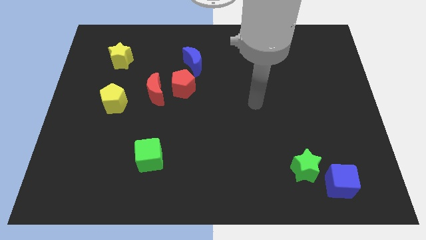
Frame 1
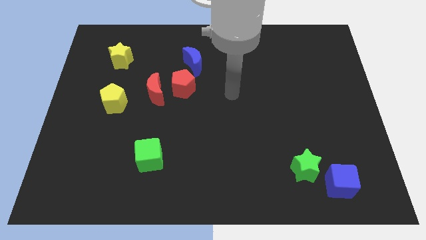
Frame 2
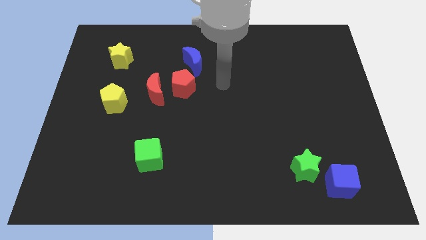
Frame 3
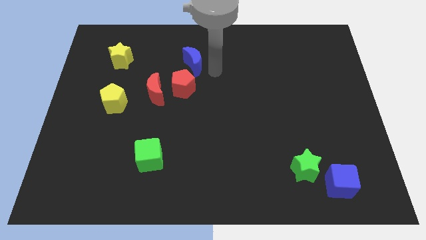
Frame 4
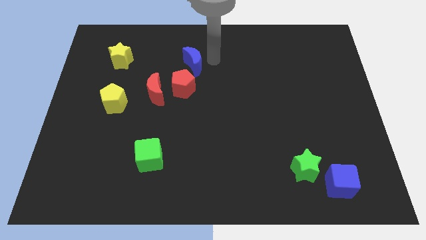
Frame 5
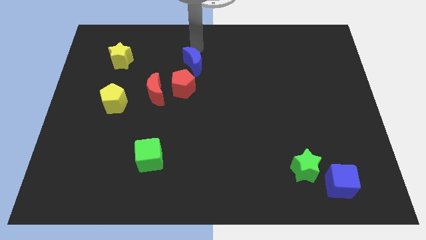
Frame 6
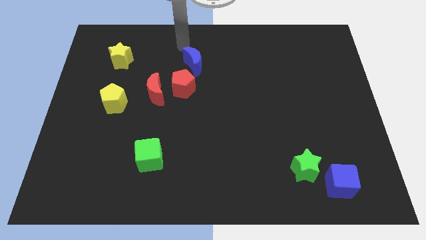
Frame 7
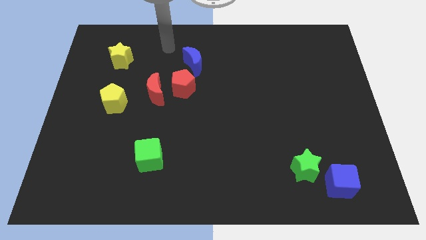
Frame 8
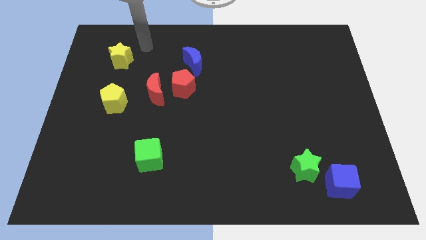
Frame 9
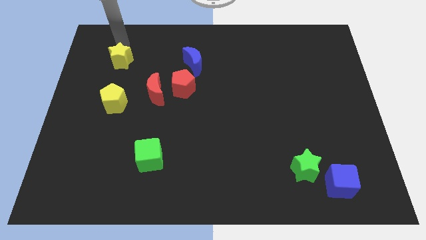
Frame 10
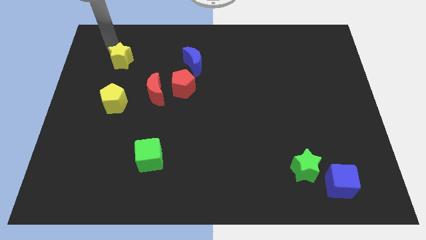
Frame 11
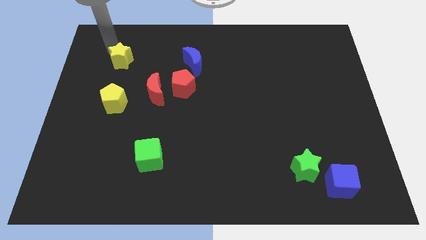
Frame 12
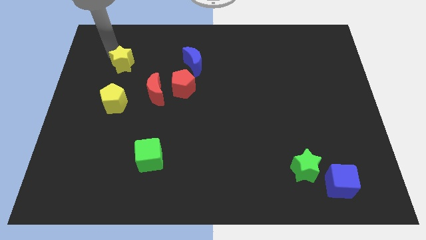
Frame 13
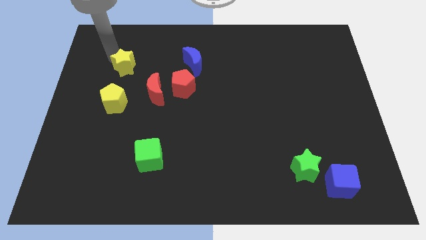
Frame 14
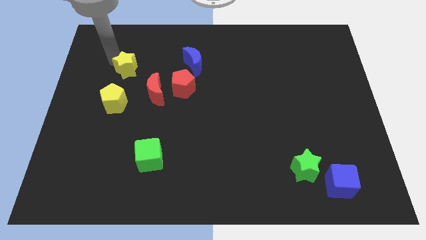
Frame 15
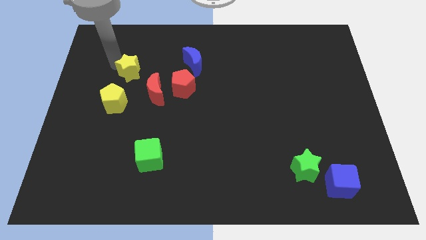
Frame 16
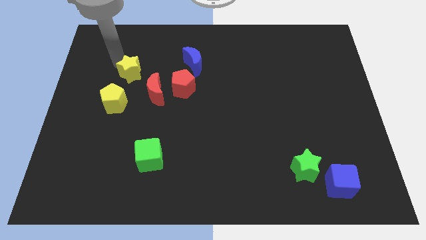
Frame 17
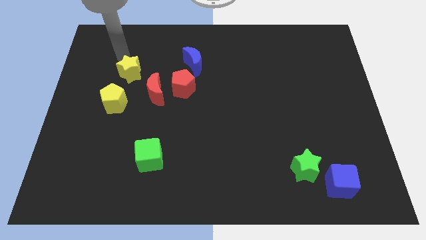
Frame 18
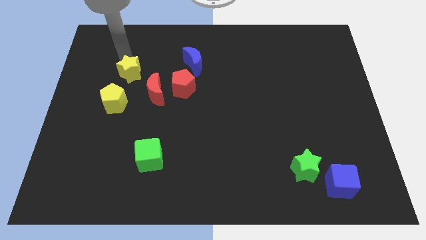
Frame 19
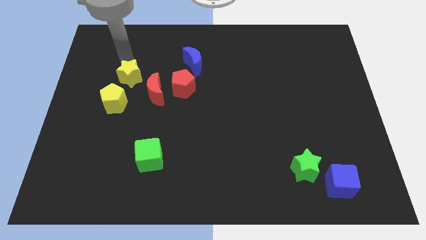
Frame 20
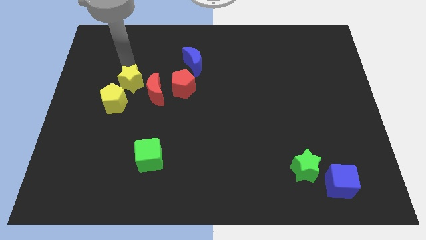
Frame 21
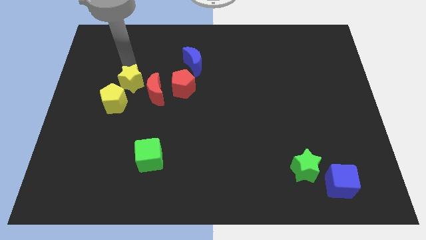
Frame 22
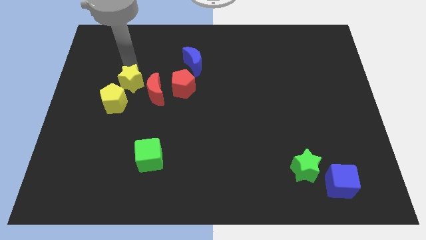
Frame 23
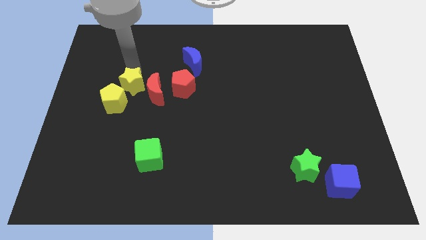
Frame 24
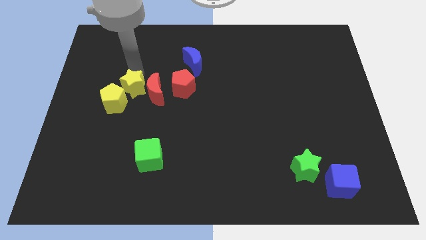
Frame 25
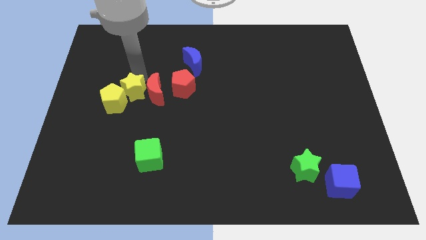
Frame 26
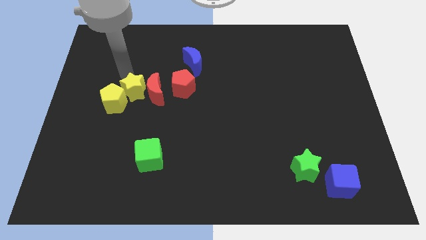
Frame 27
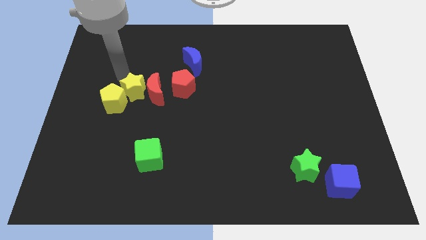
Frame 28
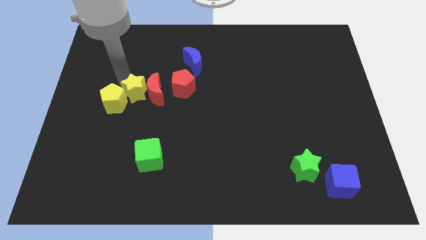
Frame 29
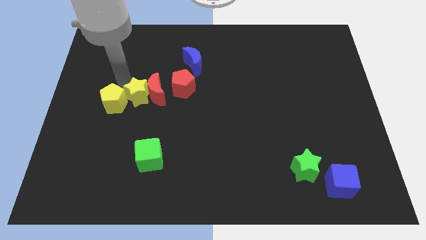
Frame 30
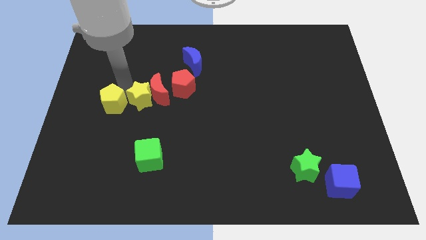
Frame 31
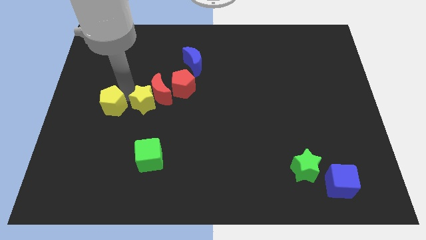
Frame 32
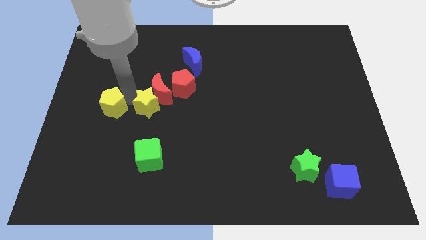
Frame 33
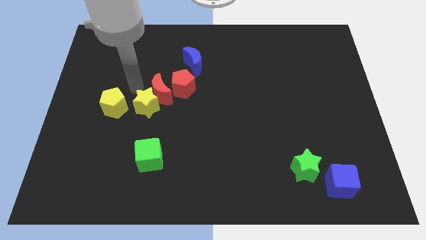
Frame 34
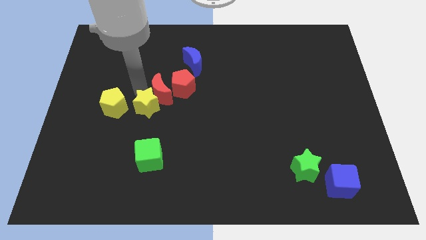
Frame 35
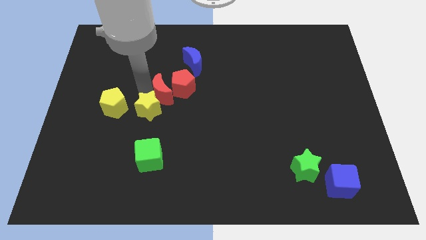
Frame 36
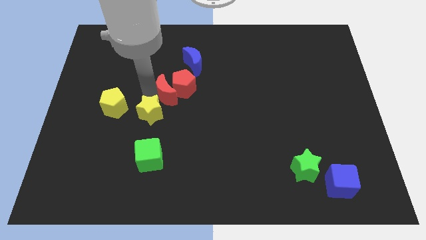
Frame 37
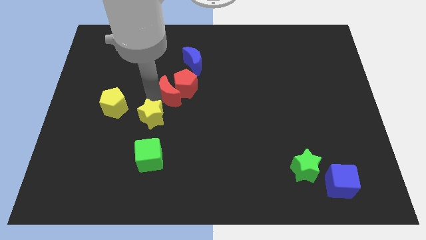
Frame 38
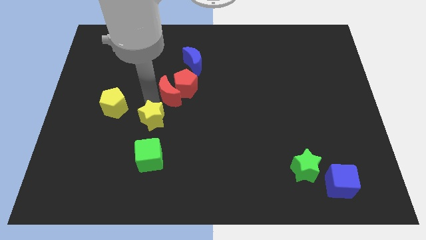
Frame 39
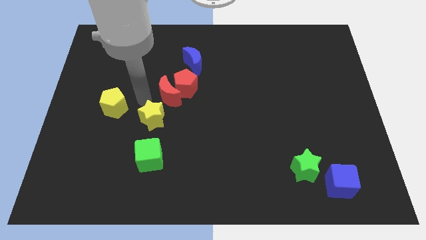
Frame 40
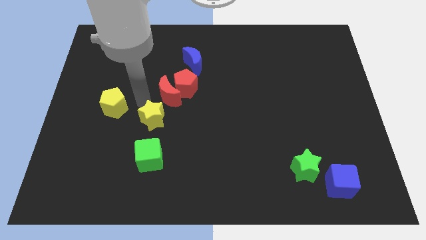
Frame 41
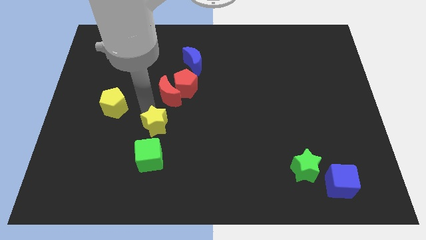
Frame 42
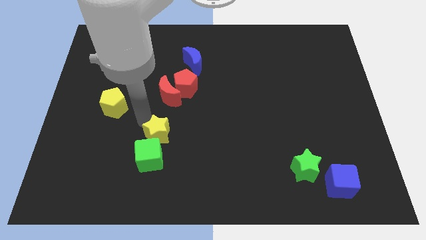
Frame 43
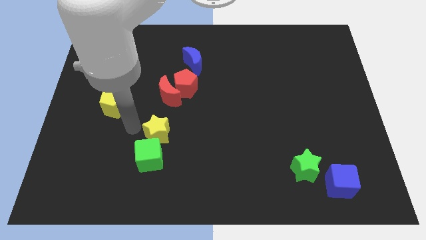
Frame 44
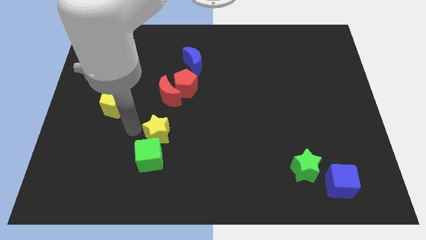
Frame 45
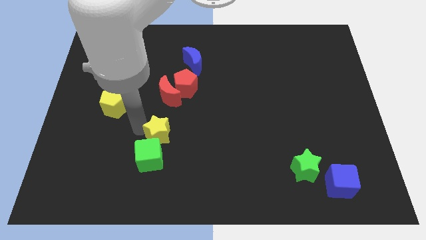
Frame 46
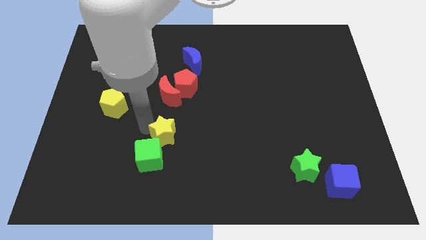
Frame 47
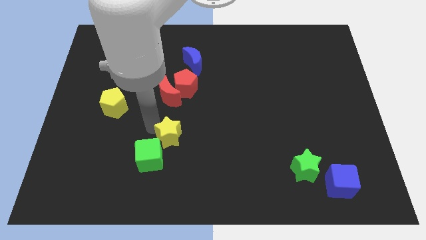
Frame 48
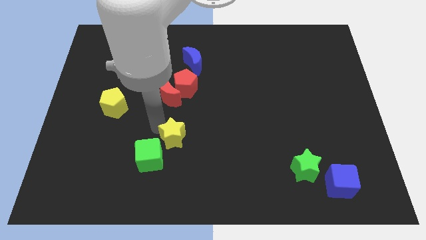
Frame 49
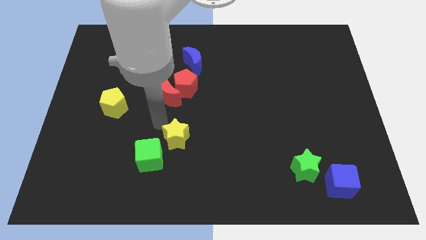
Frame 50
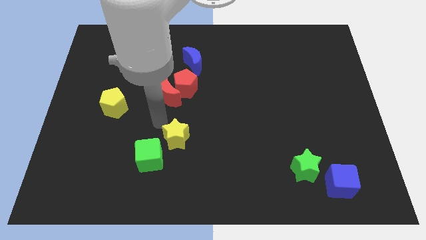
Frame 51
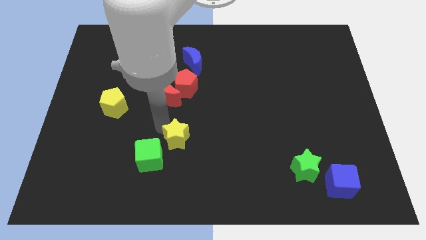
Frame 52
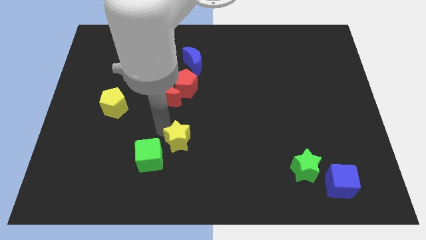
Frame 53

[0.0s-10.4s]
put the yellow star right of the green cube

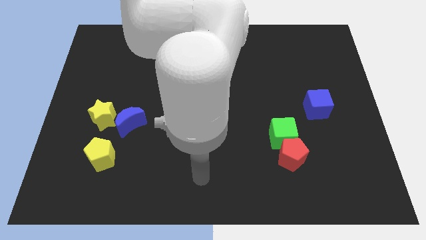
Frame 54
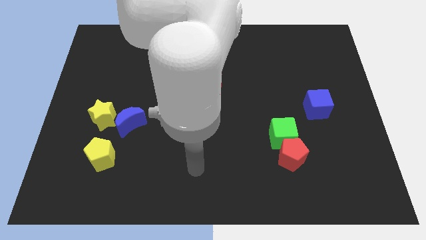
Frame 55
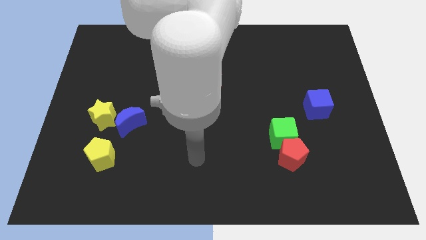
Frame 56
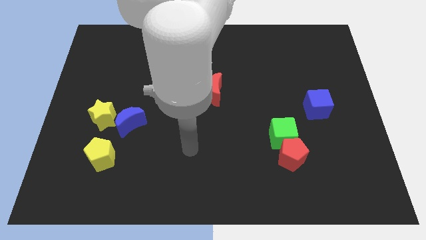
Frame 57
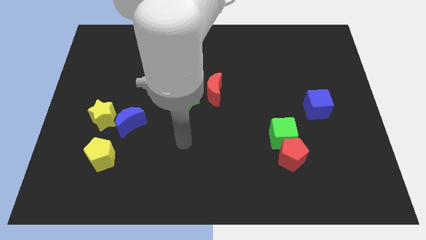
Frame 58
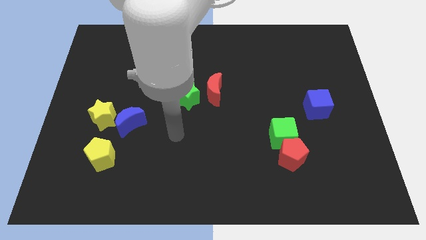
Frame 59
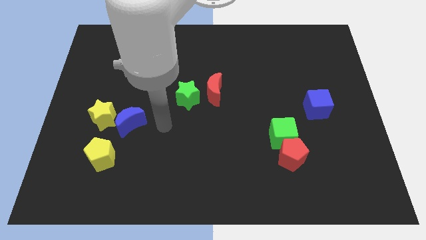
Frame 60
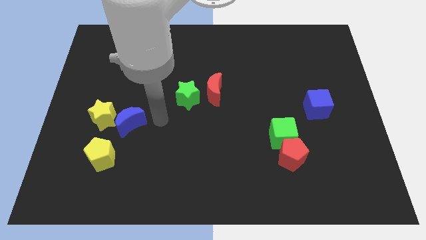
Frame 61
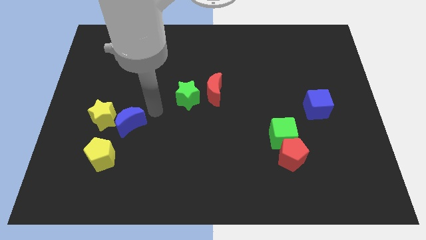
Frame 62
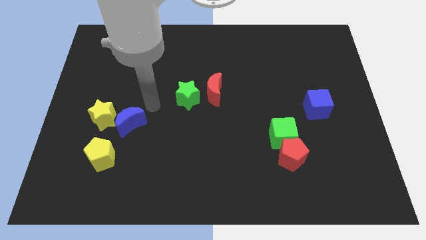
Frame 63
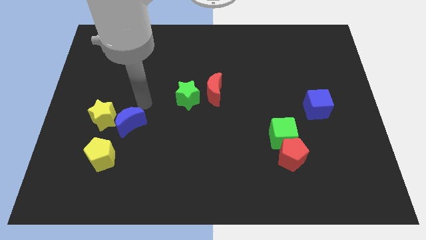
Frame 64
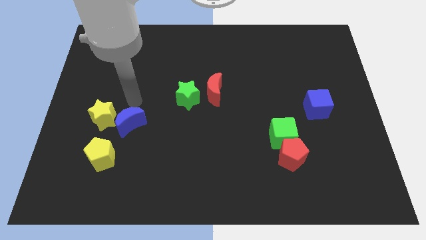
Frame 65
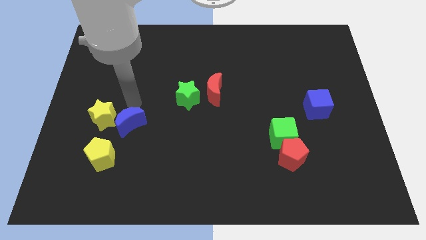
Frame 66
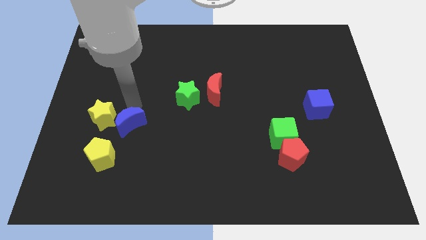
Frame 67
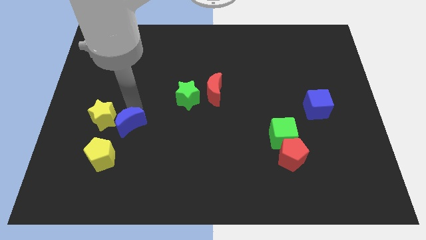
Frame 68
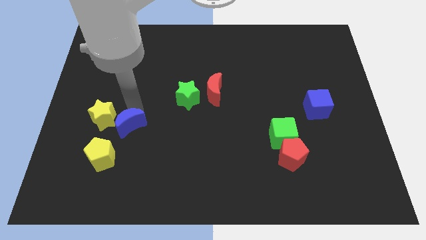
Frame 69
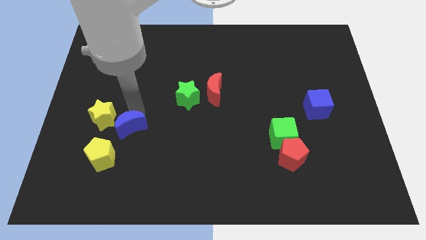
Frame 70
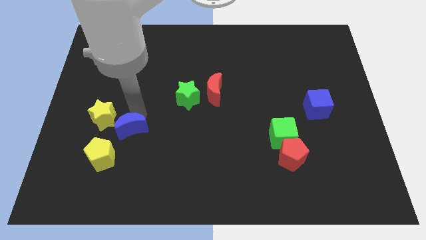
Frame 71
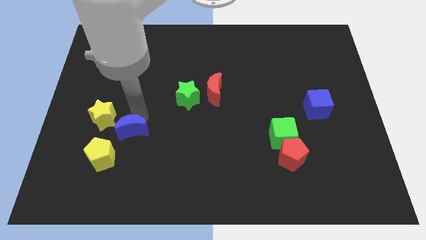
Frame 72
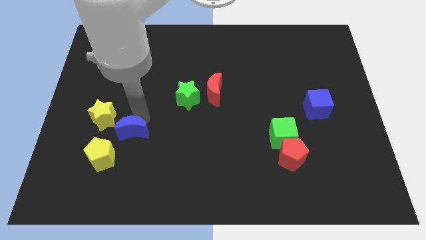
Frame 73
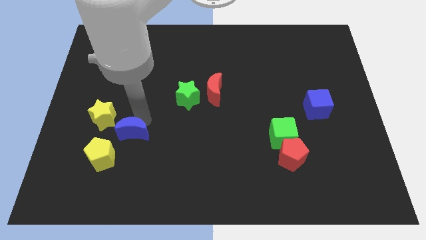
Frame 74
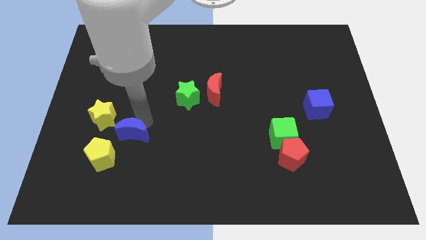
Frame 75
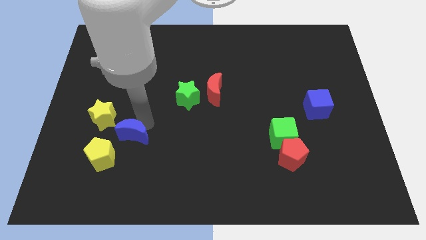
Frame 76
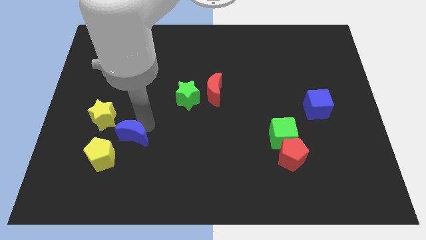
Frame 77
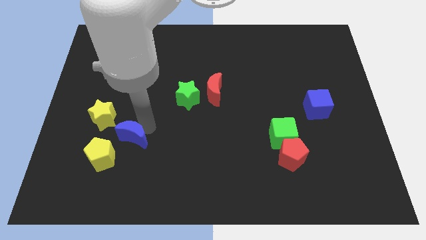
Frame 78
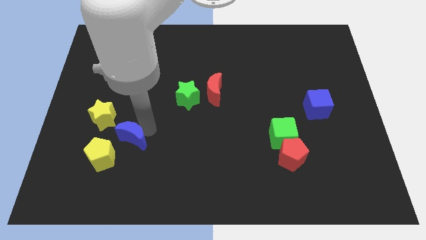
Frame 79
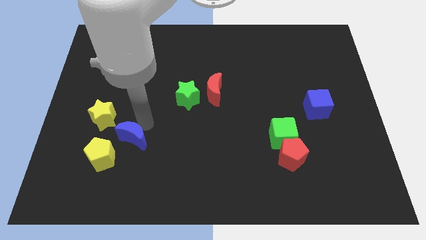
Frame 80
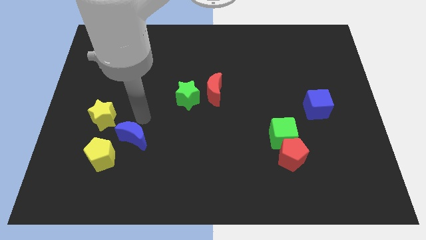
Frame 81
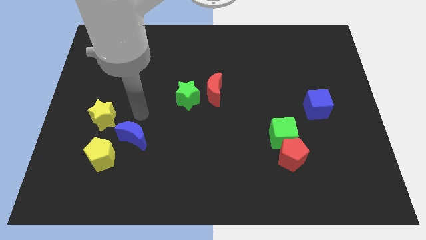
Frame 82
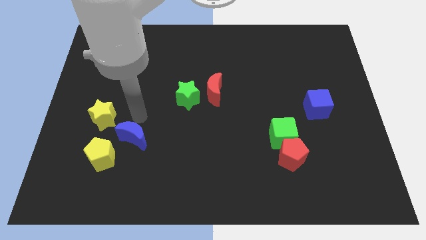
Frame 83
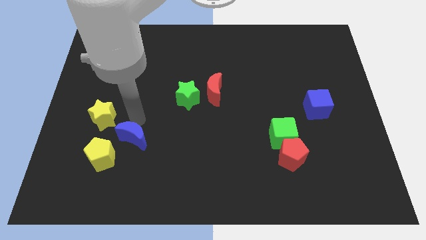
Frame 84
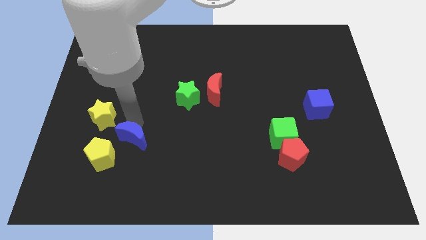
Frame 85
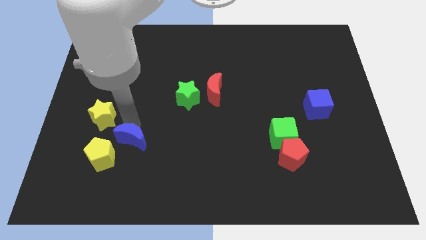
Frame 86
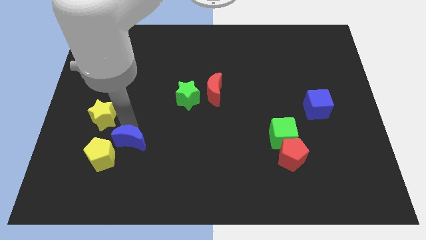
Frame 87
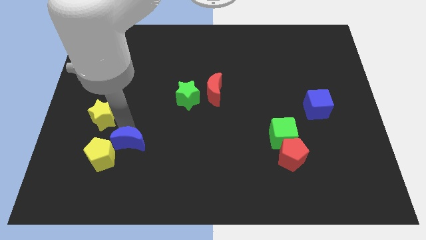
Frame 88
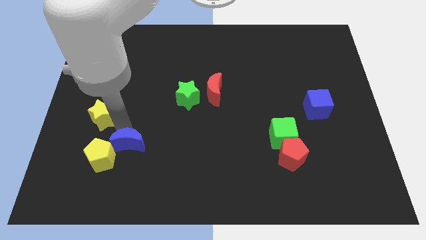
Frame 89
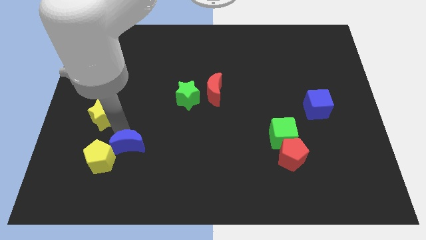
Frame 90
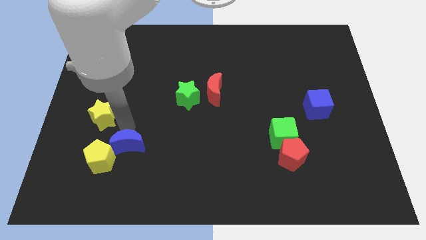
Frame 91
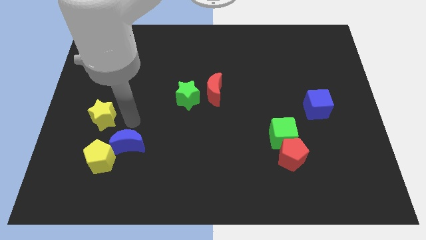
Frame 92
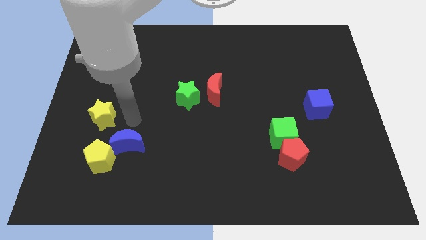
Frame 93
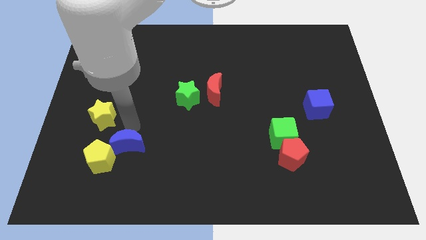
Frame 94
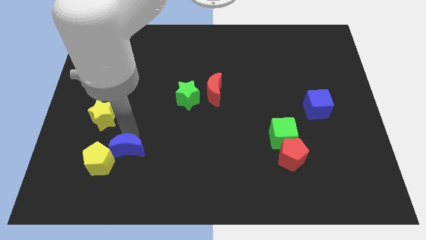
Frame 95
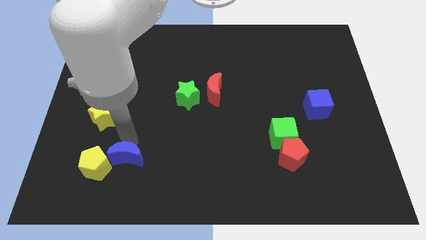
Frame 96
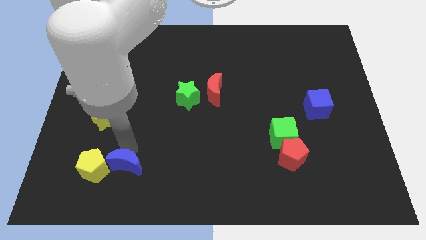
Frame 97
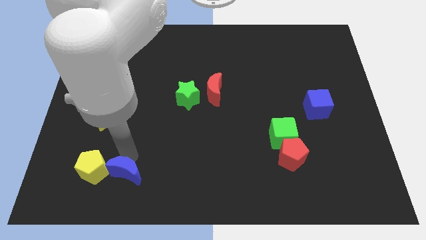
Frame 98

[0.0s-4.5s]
put the blue moon to the bottom right of the yellow pentagon
